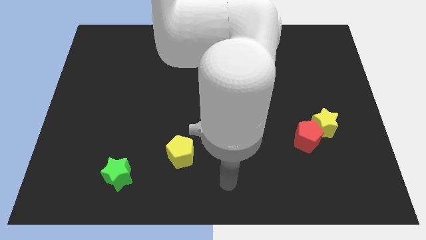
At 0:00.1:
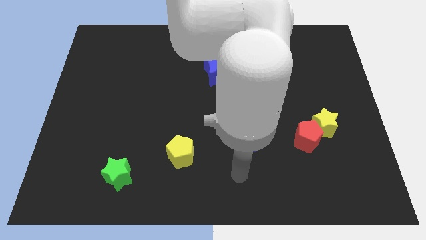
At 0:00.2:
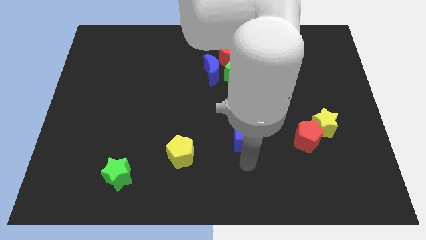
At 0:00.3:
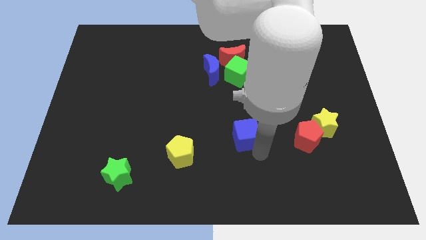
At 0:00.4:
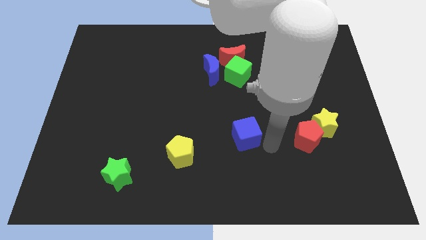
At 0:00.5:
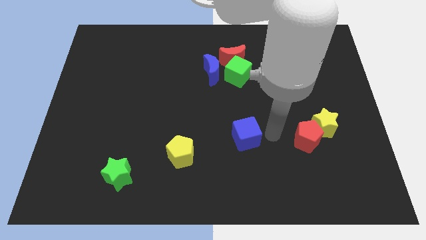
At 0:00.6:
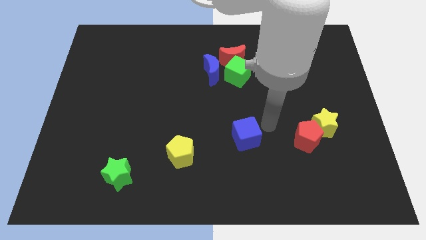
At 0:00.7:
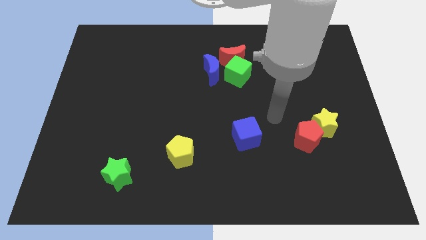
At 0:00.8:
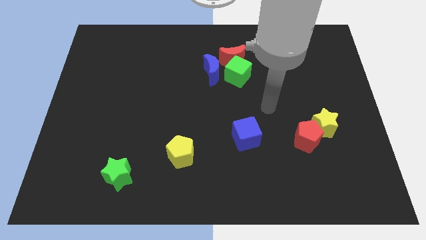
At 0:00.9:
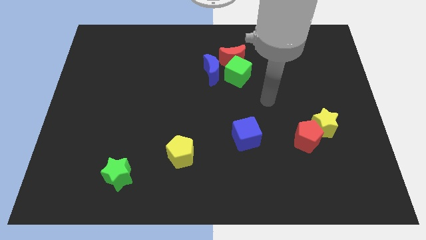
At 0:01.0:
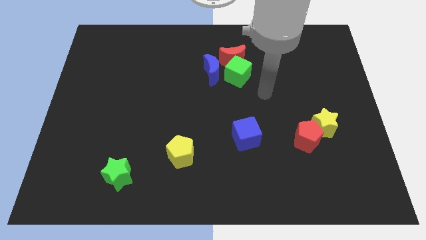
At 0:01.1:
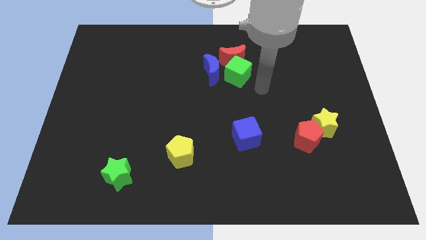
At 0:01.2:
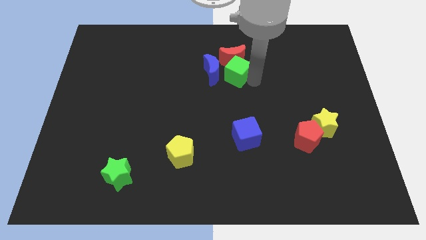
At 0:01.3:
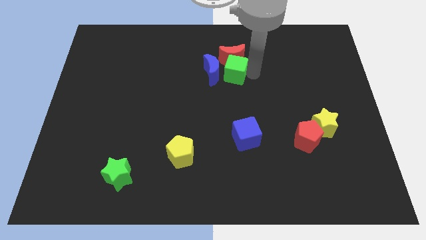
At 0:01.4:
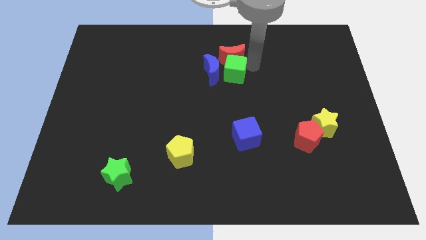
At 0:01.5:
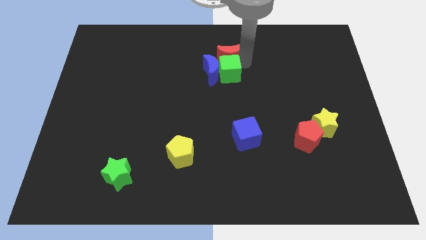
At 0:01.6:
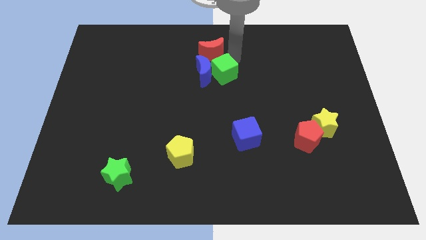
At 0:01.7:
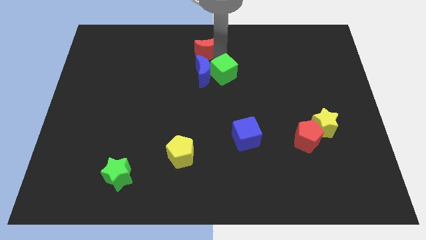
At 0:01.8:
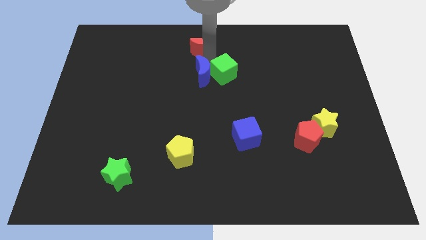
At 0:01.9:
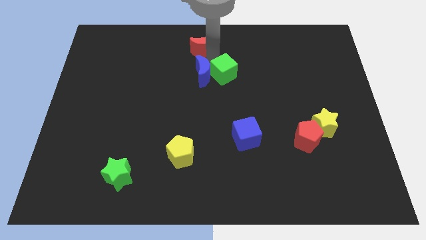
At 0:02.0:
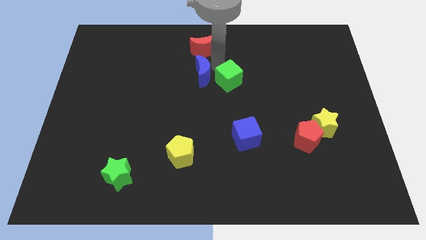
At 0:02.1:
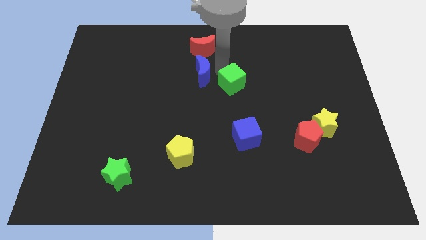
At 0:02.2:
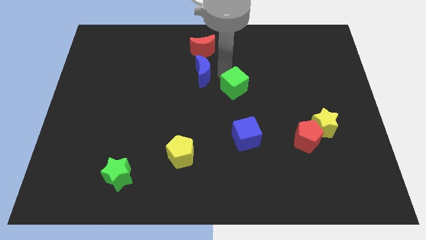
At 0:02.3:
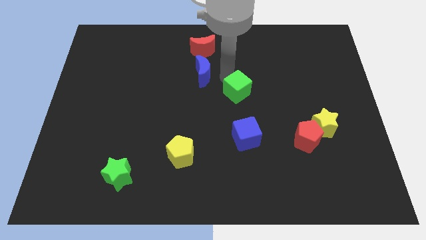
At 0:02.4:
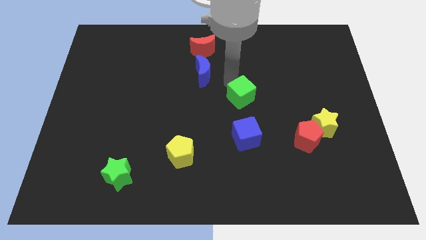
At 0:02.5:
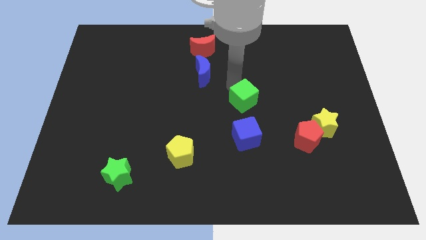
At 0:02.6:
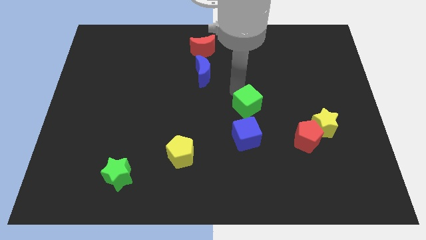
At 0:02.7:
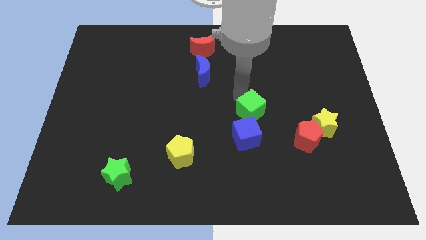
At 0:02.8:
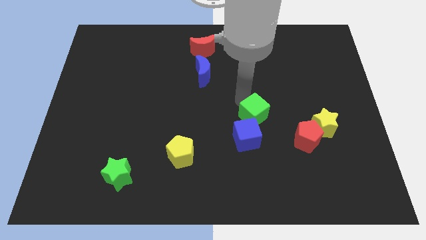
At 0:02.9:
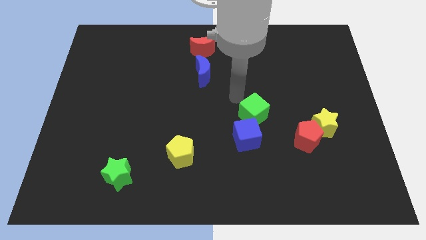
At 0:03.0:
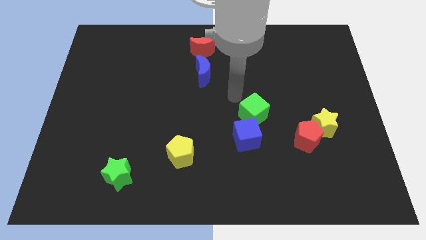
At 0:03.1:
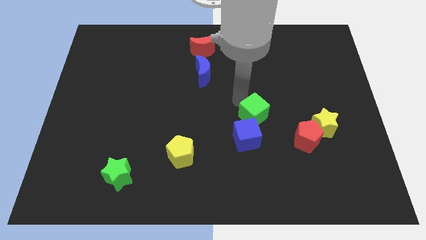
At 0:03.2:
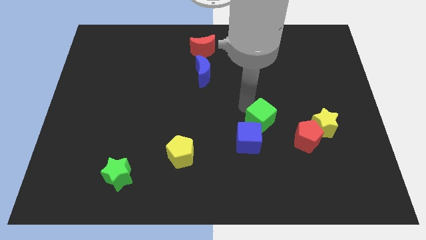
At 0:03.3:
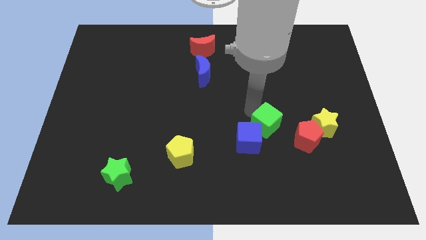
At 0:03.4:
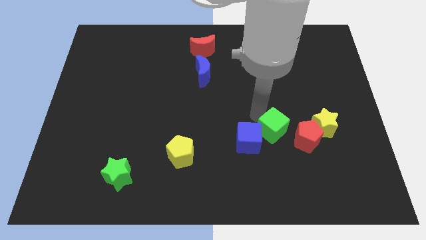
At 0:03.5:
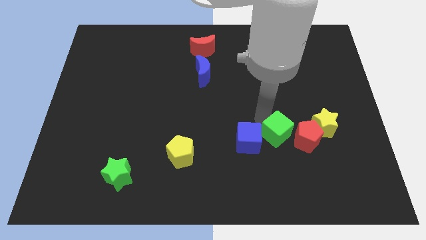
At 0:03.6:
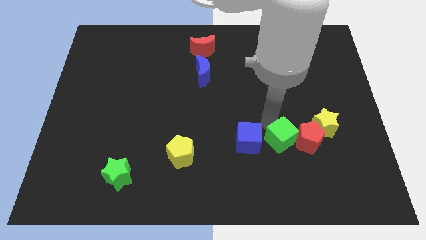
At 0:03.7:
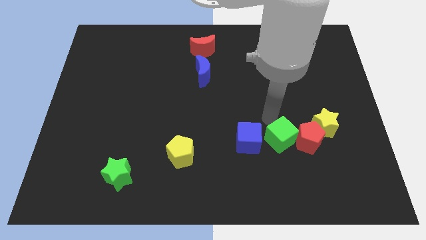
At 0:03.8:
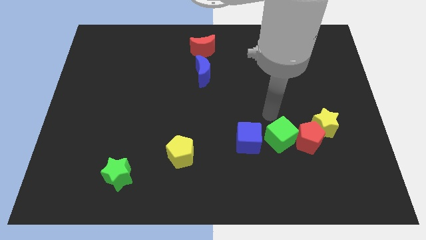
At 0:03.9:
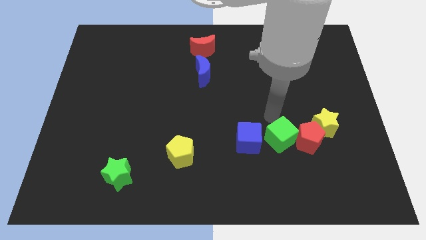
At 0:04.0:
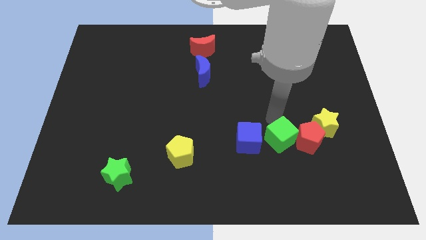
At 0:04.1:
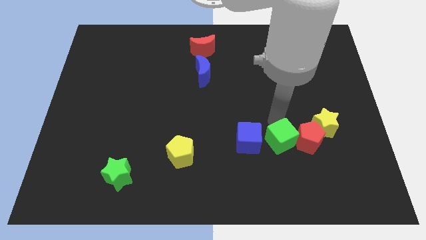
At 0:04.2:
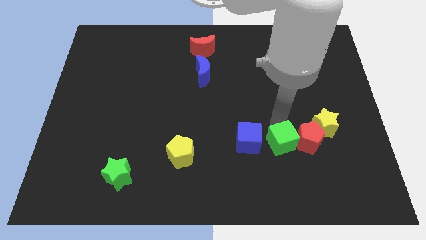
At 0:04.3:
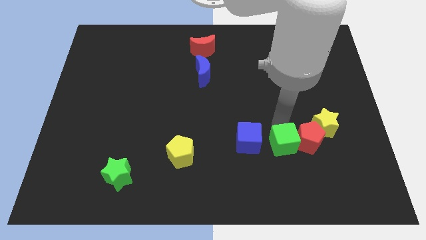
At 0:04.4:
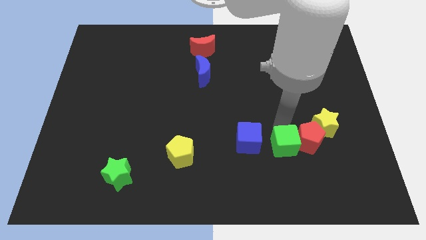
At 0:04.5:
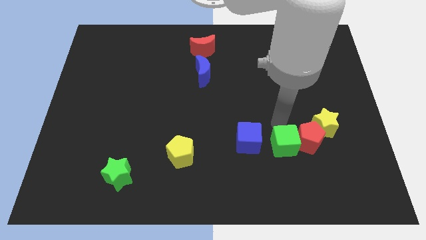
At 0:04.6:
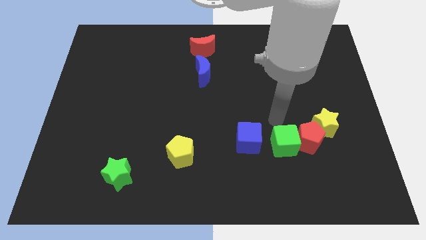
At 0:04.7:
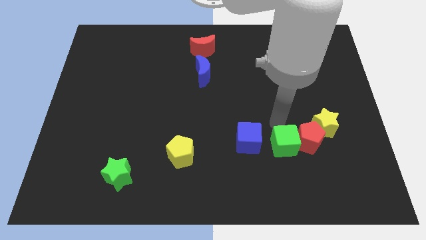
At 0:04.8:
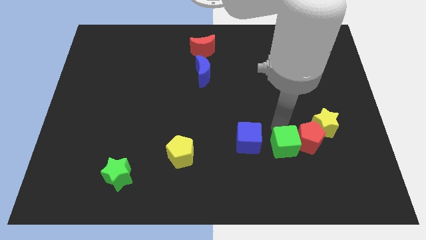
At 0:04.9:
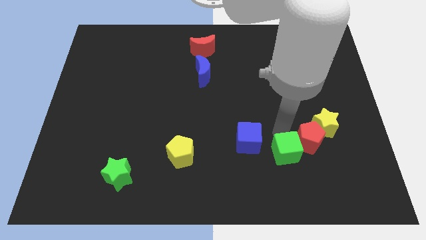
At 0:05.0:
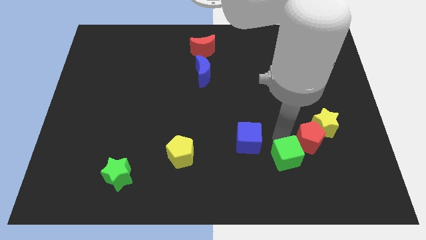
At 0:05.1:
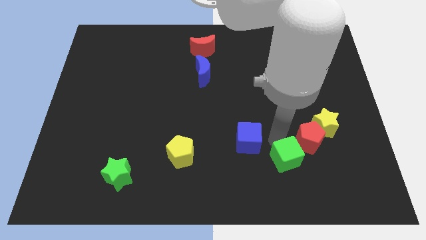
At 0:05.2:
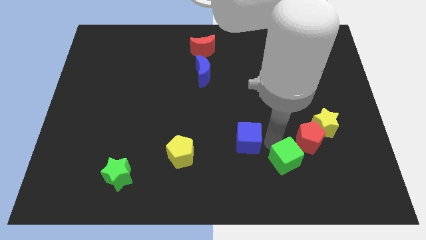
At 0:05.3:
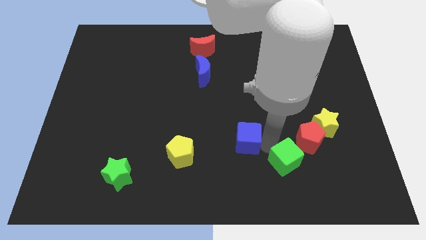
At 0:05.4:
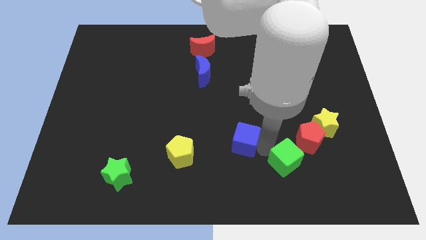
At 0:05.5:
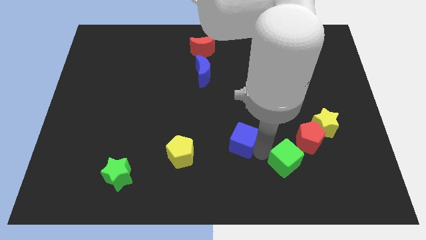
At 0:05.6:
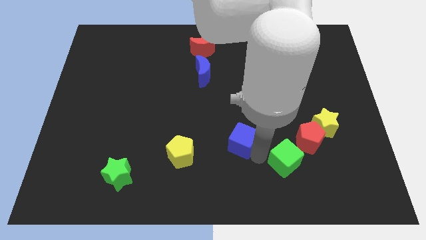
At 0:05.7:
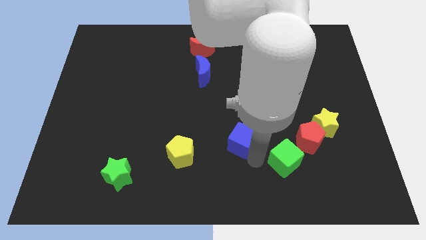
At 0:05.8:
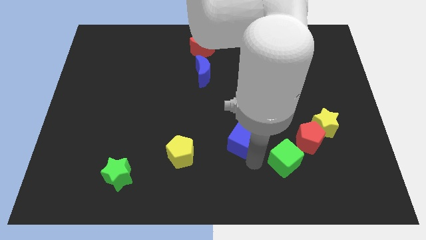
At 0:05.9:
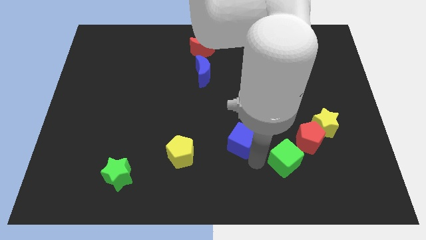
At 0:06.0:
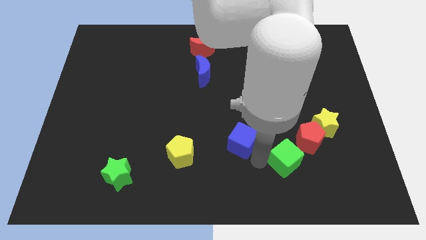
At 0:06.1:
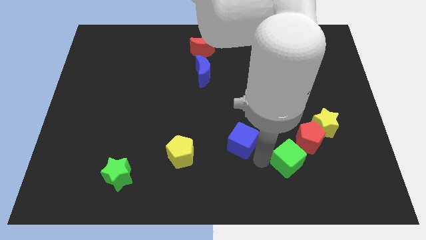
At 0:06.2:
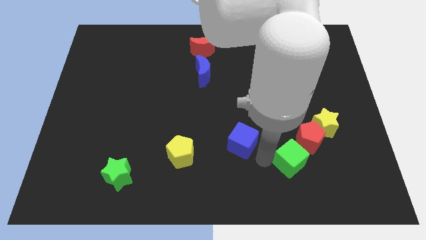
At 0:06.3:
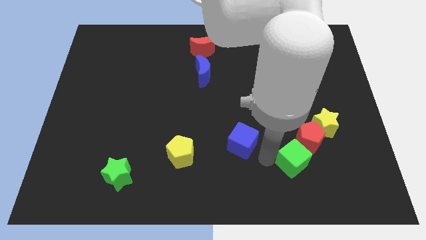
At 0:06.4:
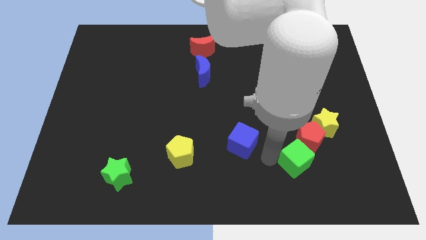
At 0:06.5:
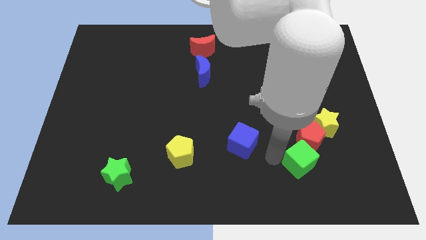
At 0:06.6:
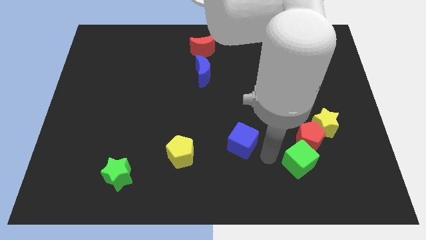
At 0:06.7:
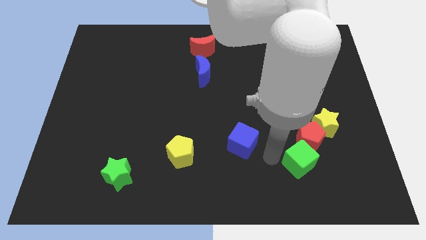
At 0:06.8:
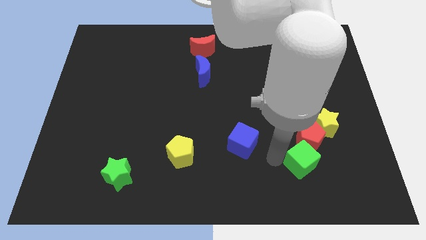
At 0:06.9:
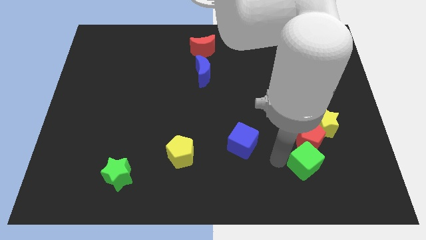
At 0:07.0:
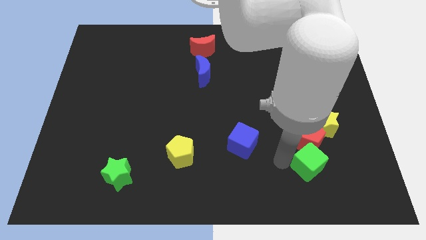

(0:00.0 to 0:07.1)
slide the green cube below the yellow star
